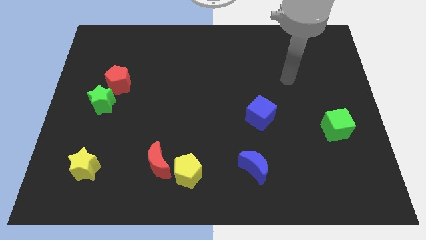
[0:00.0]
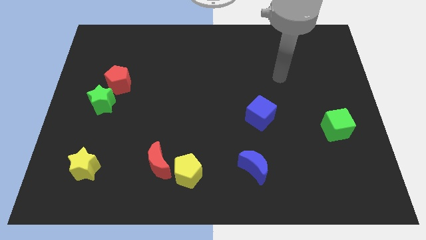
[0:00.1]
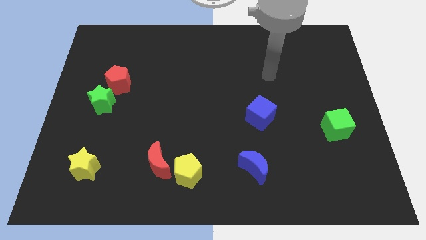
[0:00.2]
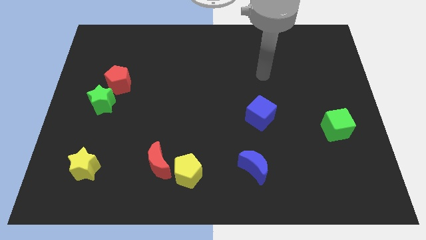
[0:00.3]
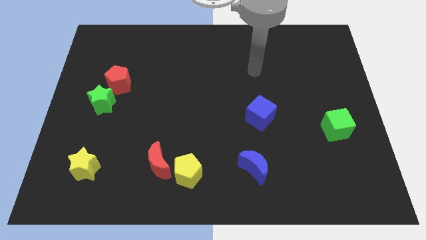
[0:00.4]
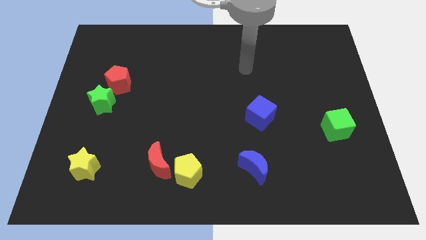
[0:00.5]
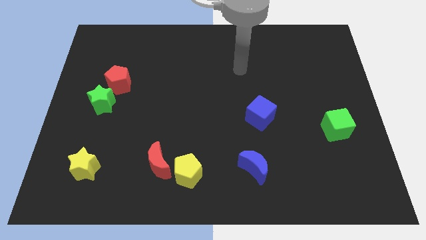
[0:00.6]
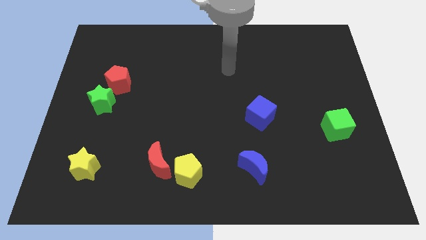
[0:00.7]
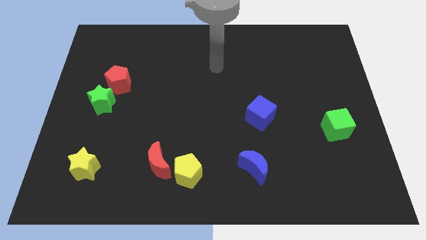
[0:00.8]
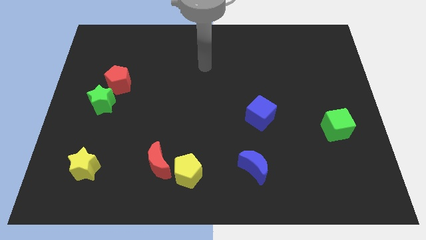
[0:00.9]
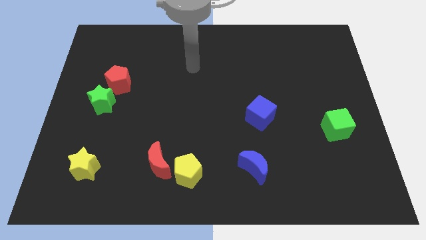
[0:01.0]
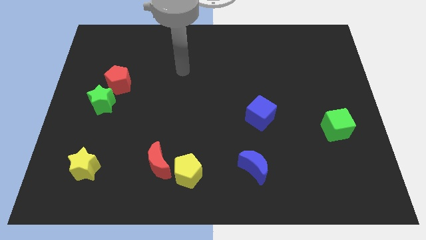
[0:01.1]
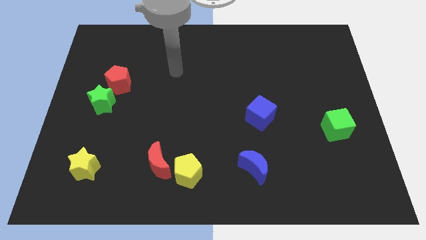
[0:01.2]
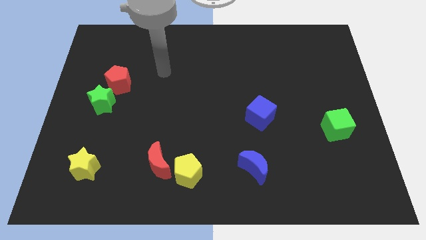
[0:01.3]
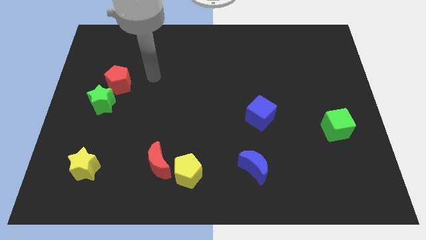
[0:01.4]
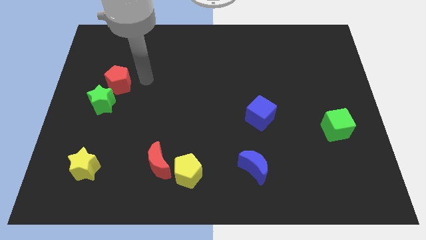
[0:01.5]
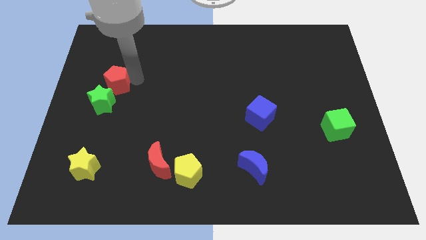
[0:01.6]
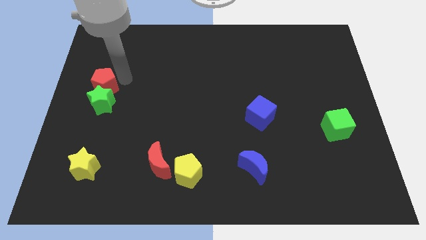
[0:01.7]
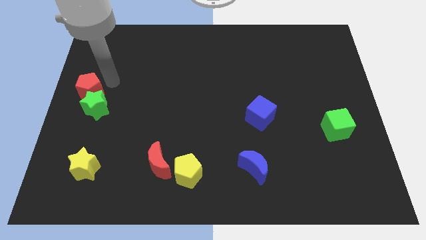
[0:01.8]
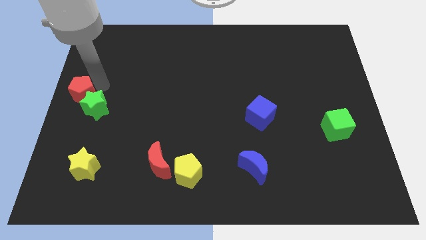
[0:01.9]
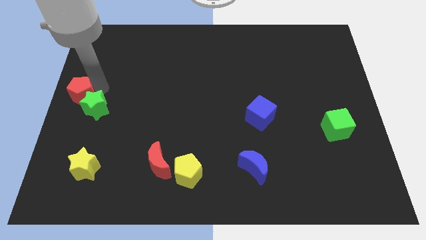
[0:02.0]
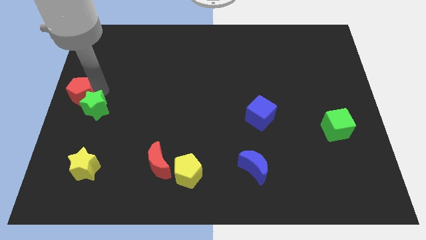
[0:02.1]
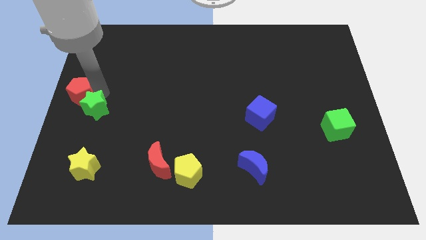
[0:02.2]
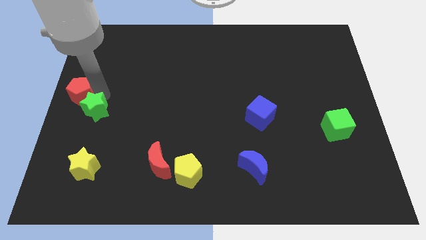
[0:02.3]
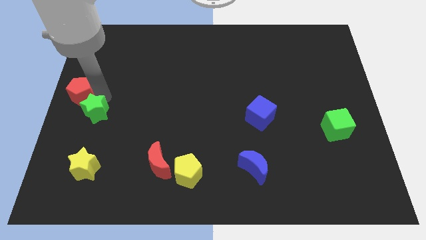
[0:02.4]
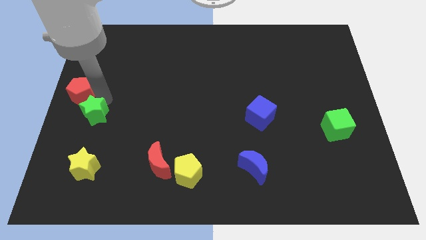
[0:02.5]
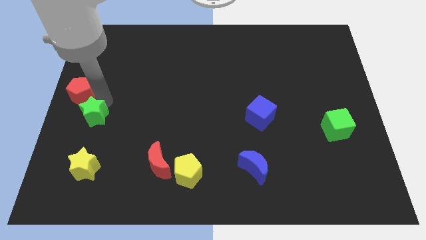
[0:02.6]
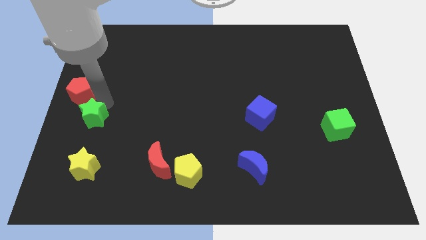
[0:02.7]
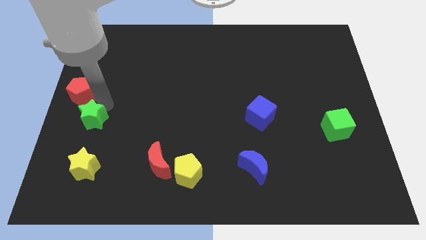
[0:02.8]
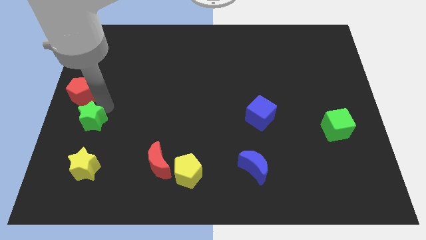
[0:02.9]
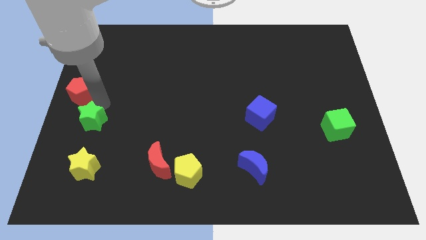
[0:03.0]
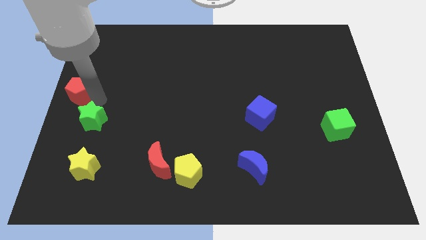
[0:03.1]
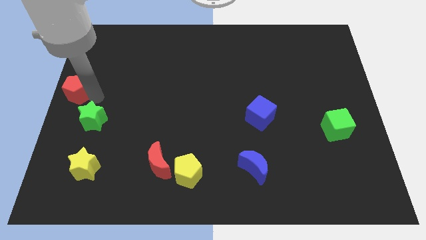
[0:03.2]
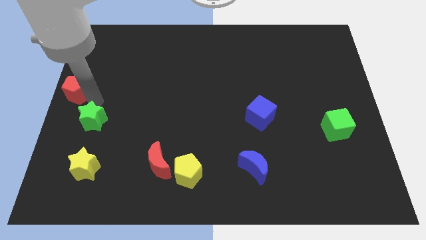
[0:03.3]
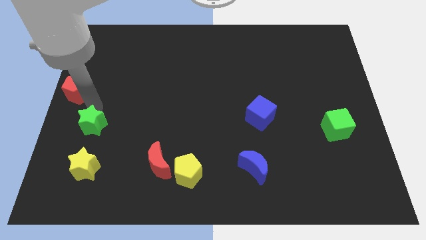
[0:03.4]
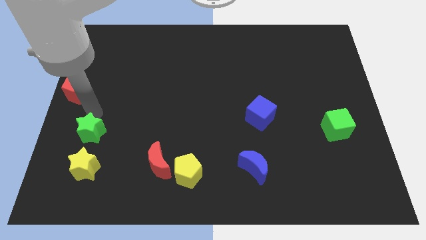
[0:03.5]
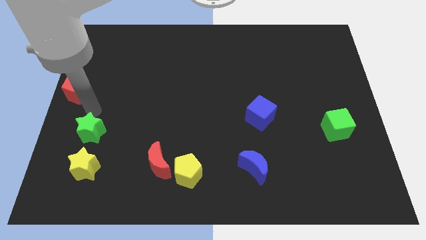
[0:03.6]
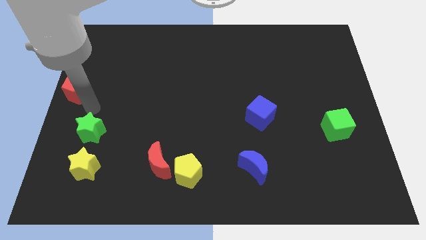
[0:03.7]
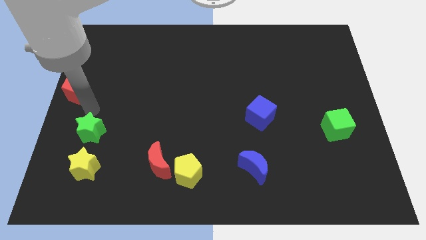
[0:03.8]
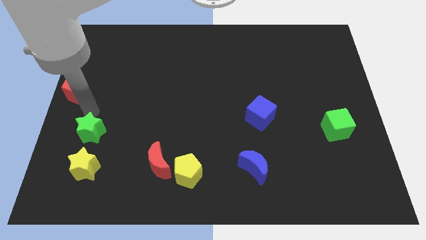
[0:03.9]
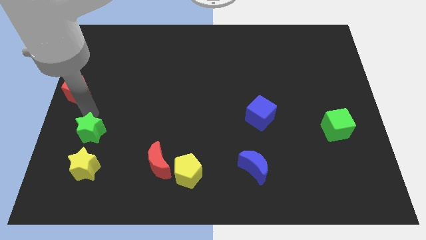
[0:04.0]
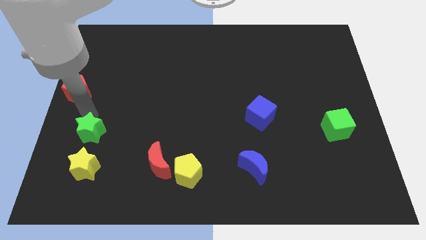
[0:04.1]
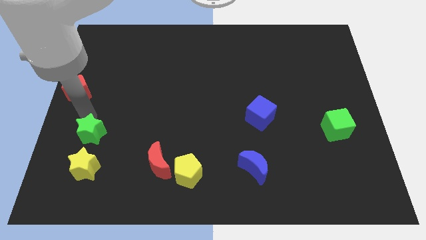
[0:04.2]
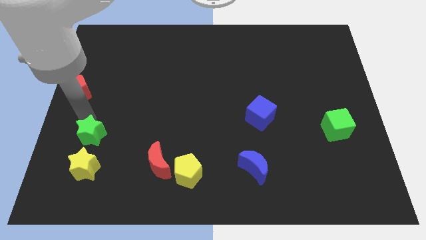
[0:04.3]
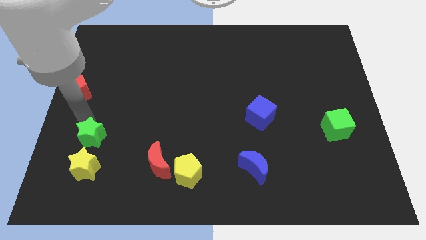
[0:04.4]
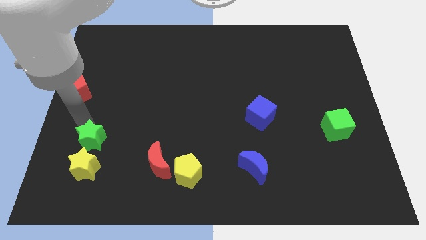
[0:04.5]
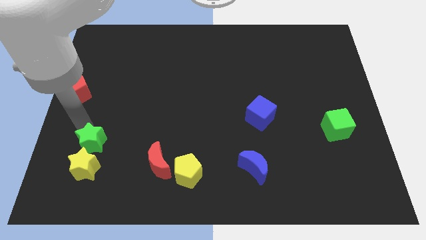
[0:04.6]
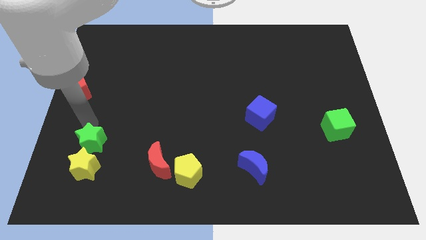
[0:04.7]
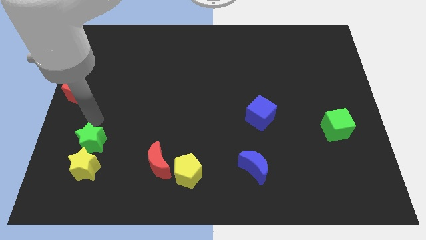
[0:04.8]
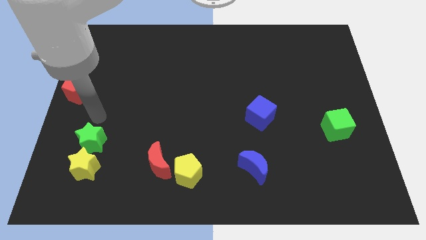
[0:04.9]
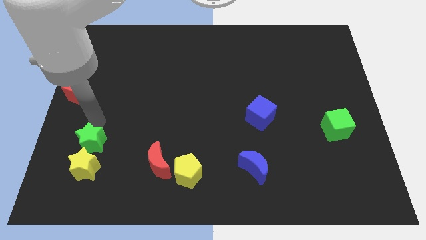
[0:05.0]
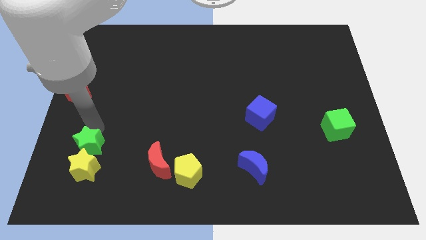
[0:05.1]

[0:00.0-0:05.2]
push the green star towards the yellow star

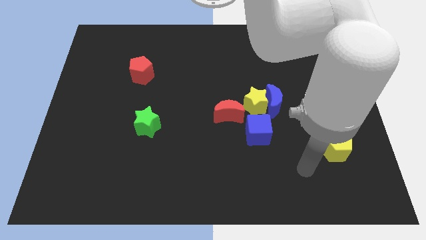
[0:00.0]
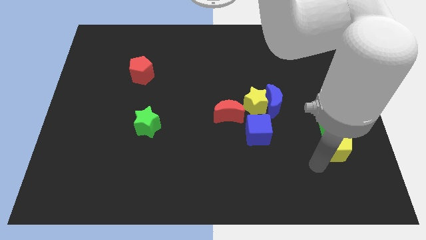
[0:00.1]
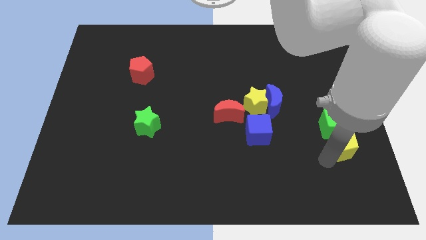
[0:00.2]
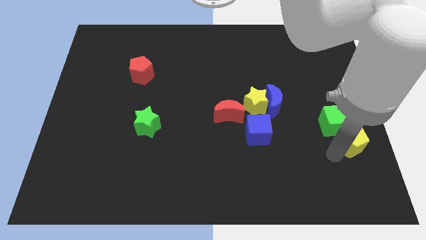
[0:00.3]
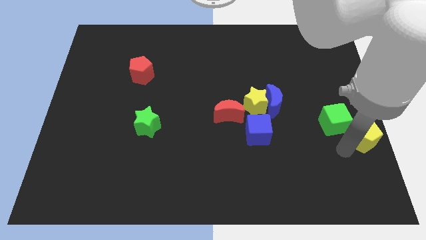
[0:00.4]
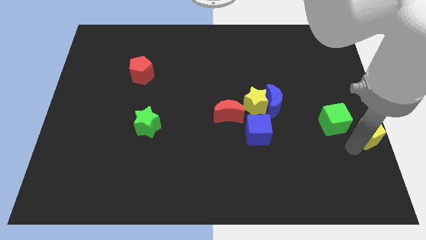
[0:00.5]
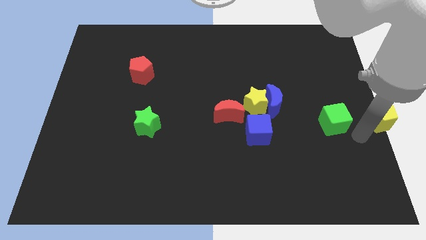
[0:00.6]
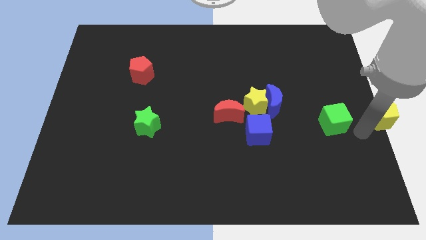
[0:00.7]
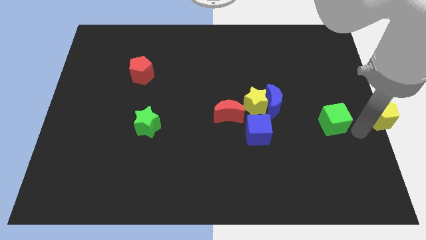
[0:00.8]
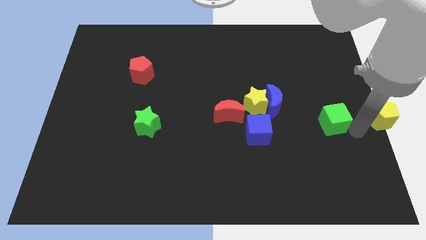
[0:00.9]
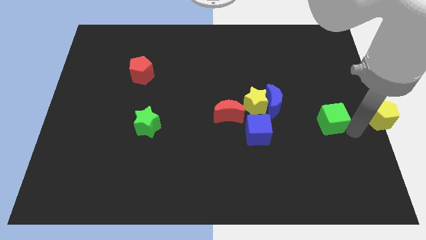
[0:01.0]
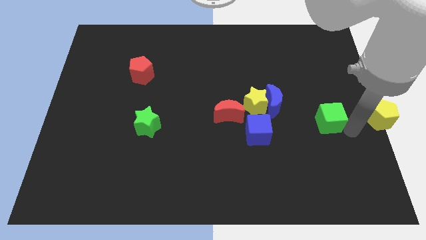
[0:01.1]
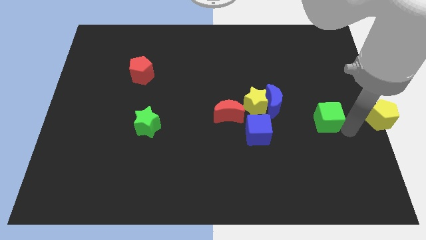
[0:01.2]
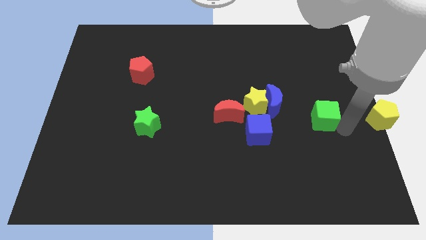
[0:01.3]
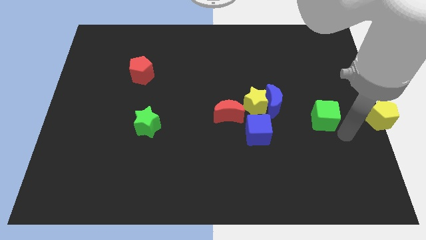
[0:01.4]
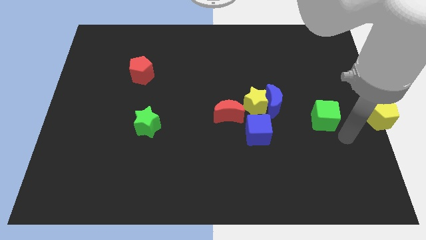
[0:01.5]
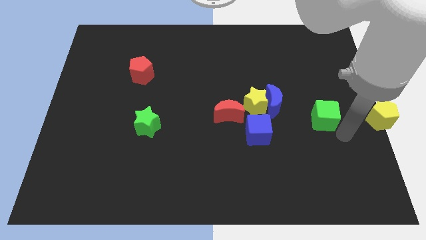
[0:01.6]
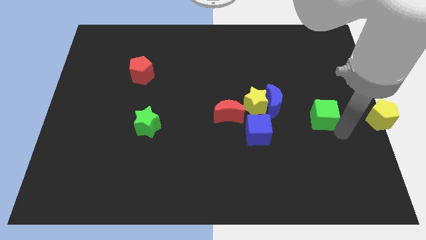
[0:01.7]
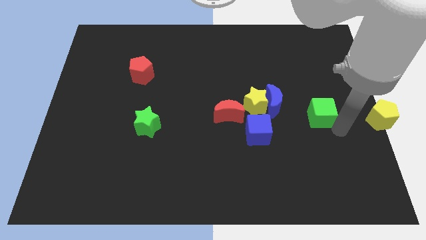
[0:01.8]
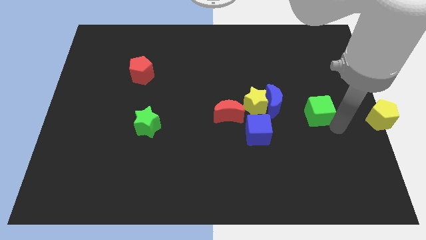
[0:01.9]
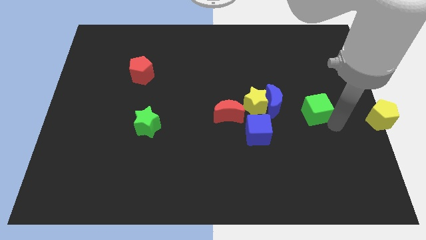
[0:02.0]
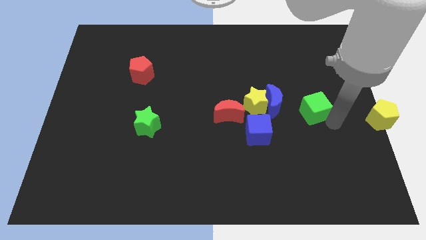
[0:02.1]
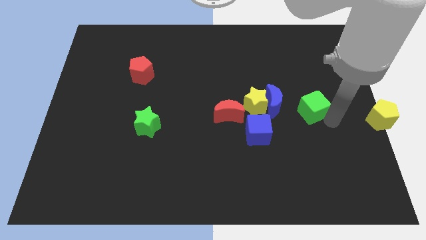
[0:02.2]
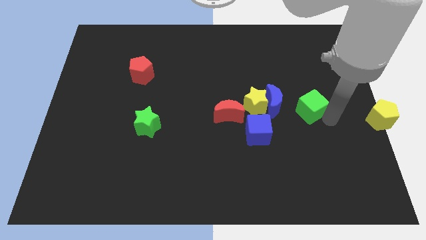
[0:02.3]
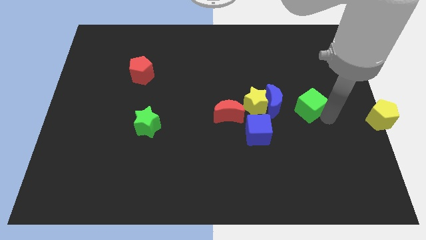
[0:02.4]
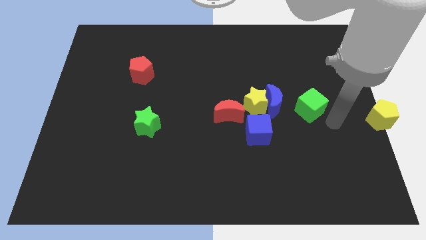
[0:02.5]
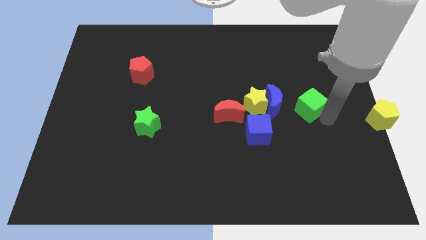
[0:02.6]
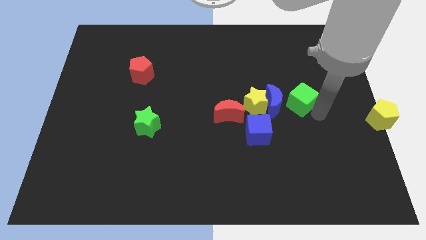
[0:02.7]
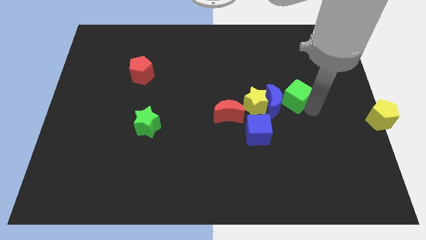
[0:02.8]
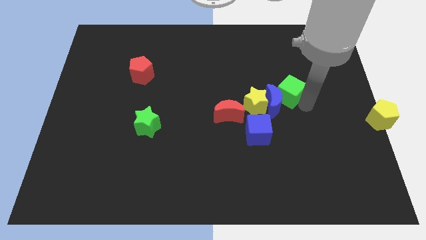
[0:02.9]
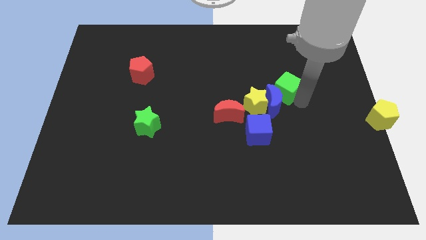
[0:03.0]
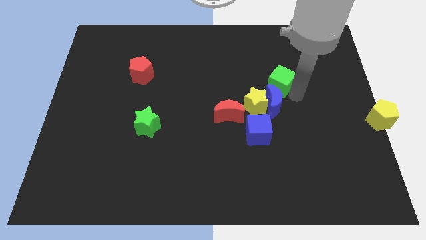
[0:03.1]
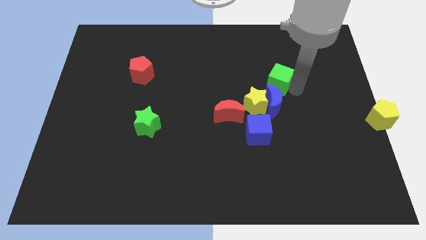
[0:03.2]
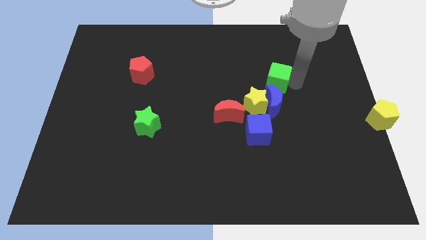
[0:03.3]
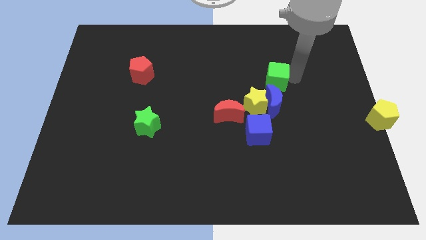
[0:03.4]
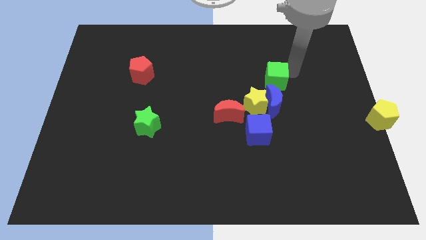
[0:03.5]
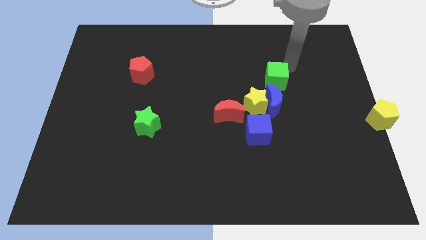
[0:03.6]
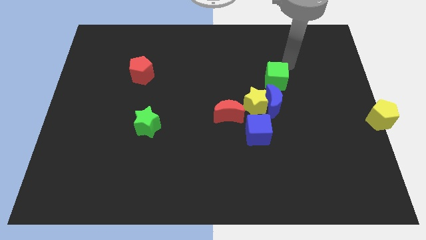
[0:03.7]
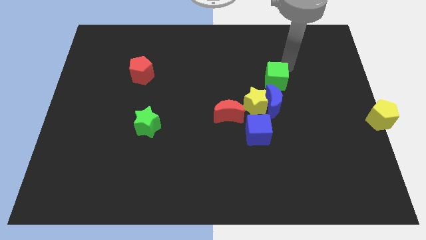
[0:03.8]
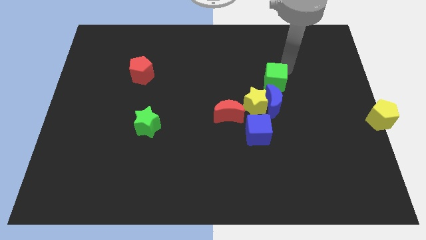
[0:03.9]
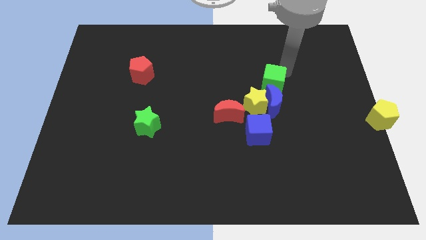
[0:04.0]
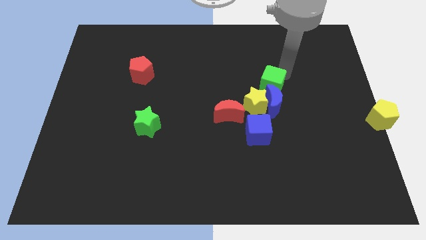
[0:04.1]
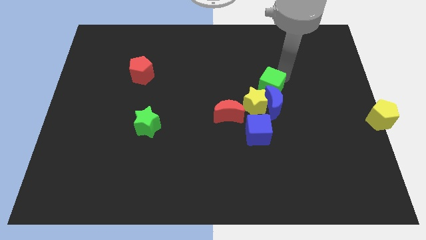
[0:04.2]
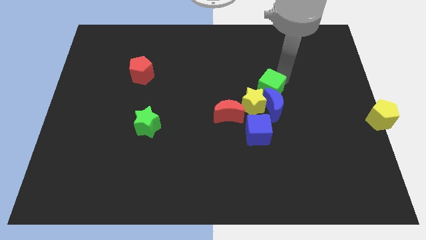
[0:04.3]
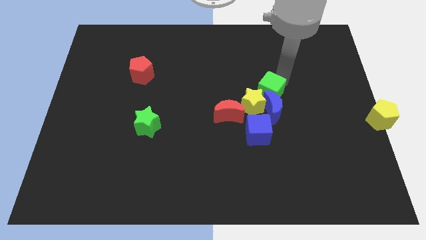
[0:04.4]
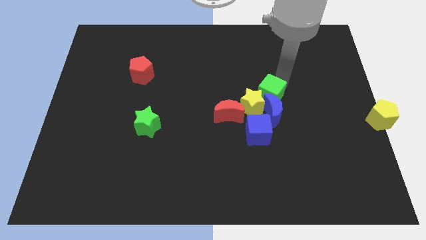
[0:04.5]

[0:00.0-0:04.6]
push the green cube towards the yellow star
